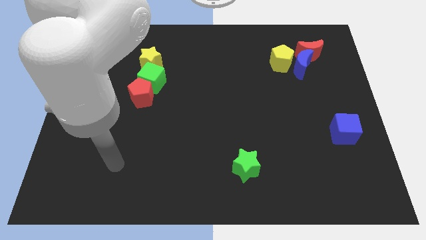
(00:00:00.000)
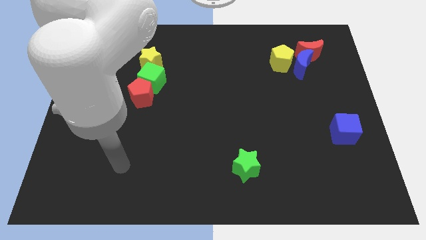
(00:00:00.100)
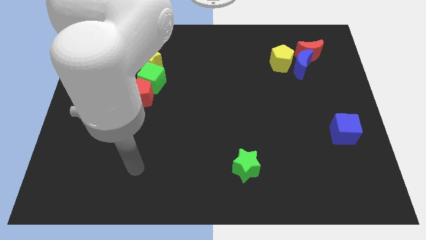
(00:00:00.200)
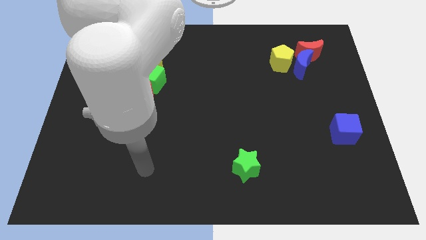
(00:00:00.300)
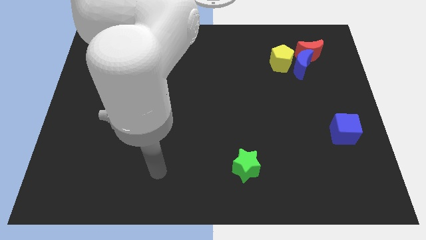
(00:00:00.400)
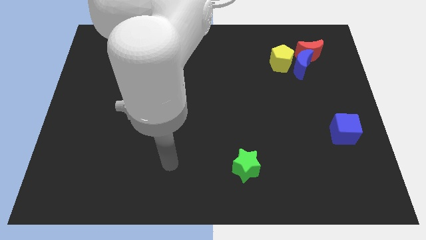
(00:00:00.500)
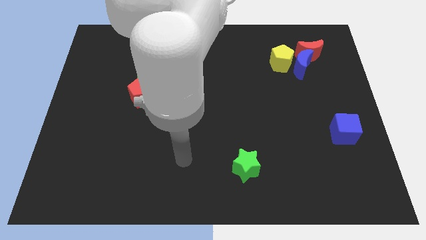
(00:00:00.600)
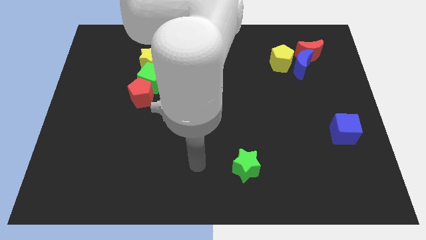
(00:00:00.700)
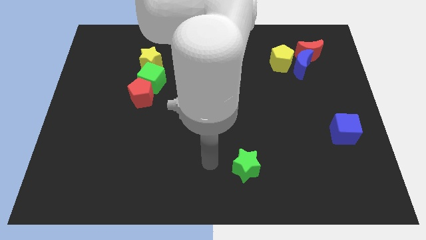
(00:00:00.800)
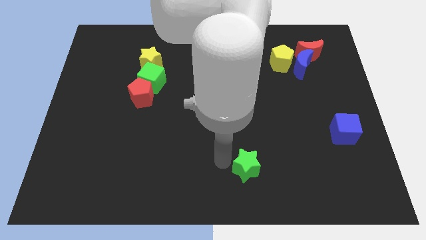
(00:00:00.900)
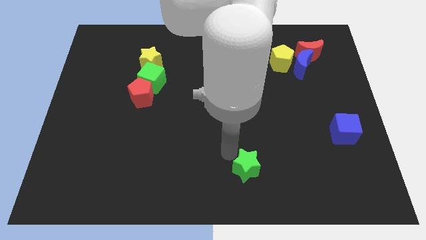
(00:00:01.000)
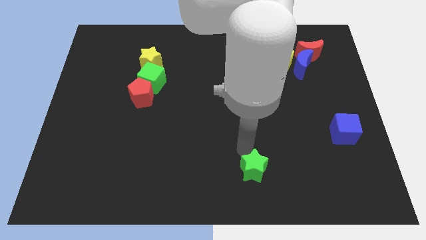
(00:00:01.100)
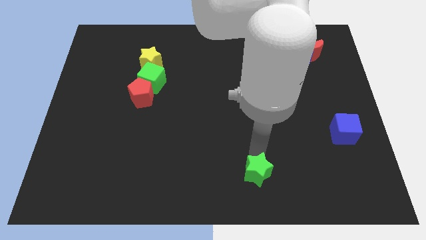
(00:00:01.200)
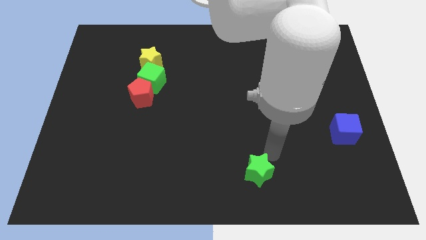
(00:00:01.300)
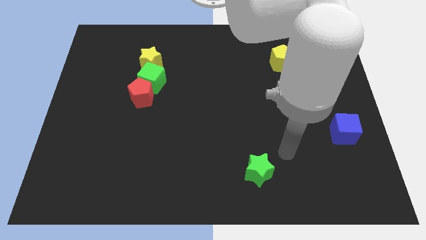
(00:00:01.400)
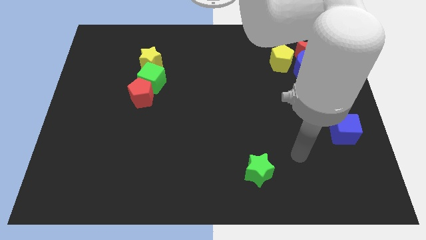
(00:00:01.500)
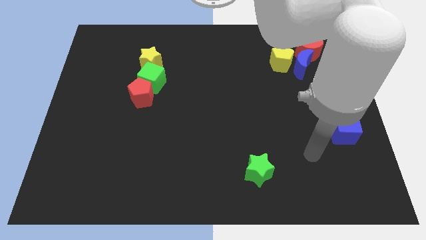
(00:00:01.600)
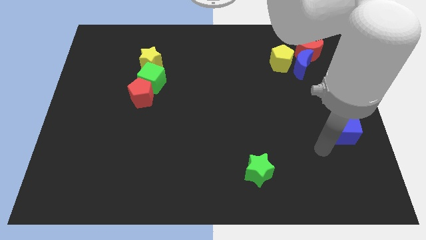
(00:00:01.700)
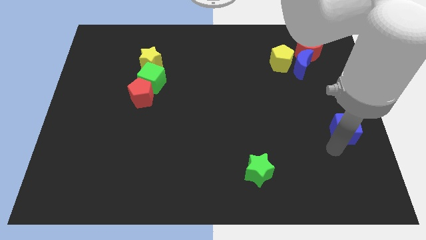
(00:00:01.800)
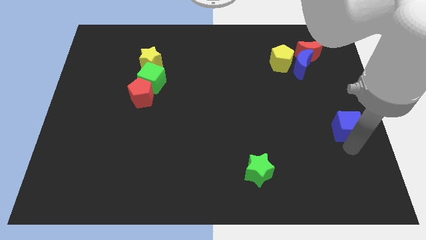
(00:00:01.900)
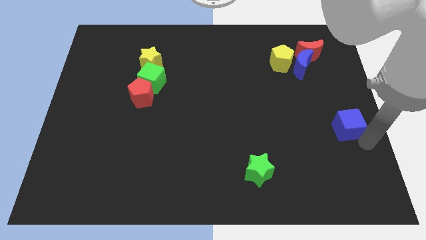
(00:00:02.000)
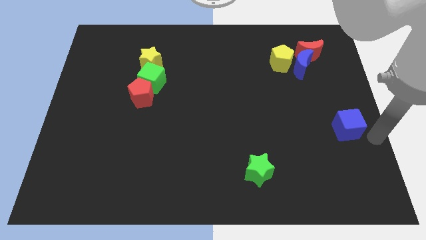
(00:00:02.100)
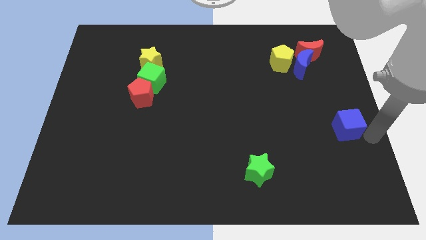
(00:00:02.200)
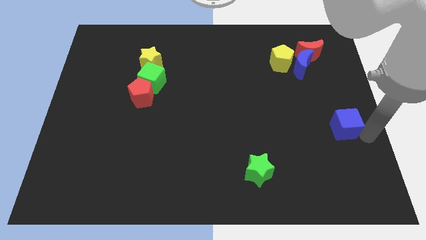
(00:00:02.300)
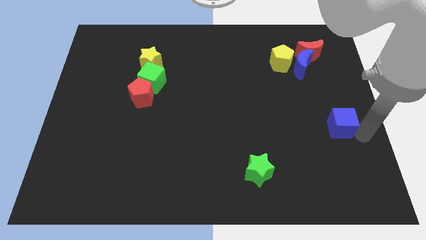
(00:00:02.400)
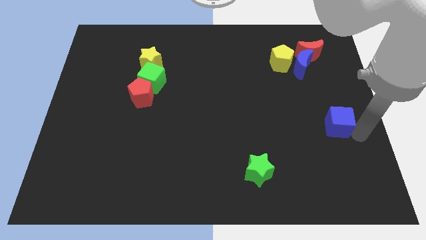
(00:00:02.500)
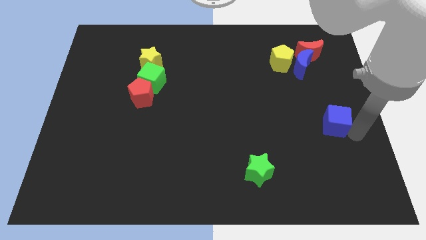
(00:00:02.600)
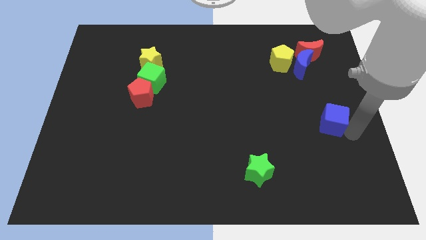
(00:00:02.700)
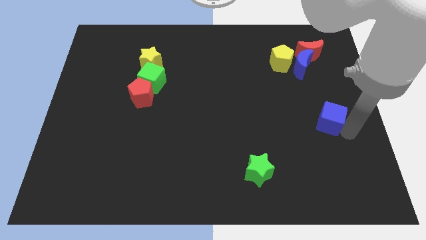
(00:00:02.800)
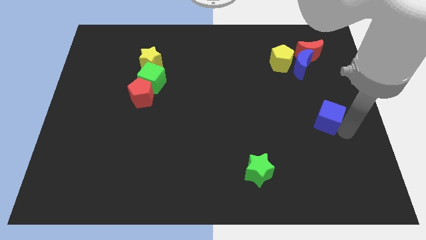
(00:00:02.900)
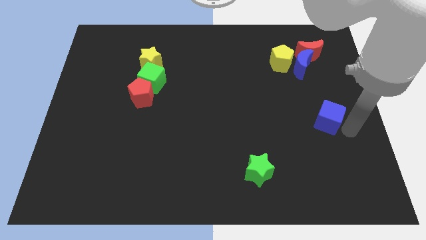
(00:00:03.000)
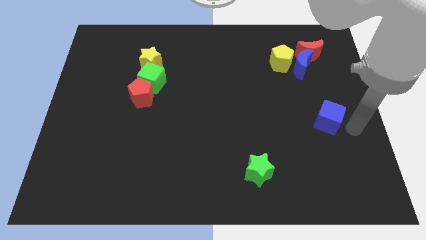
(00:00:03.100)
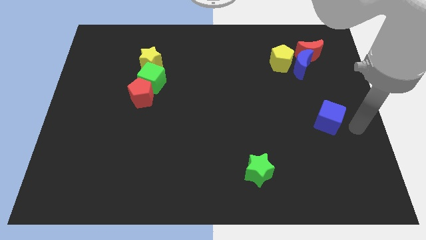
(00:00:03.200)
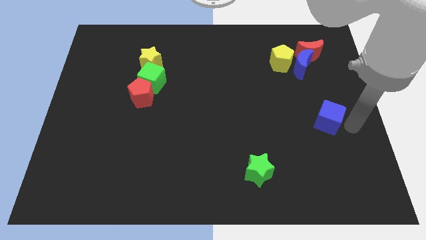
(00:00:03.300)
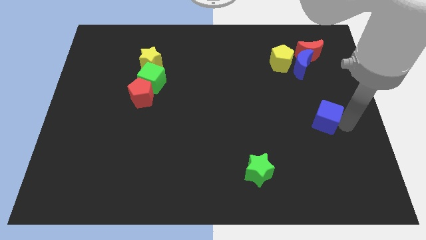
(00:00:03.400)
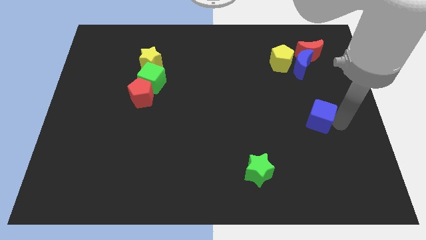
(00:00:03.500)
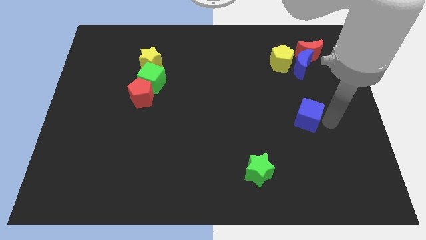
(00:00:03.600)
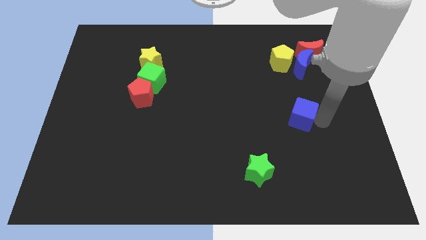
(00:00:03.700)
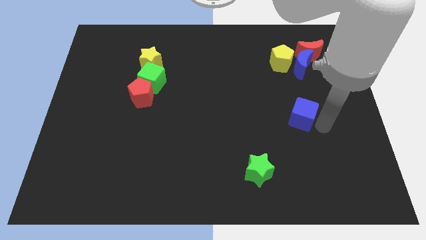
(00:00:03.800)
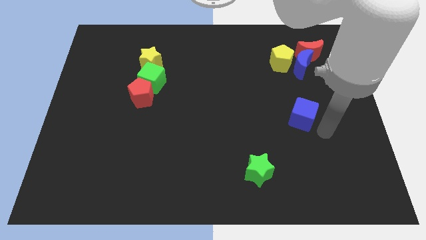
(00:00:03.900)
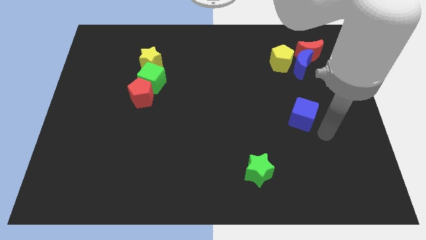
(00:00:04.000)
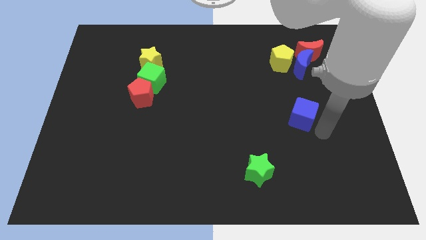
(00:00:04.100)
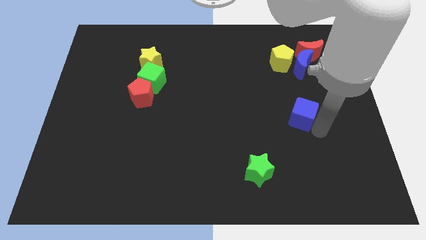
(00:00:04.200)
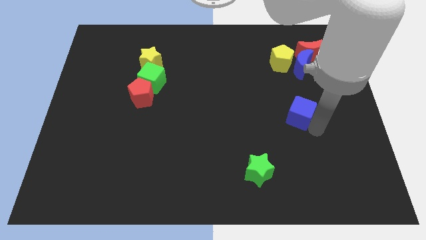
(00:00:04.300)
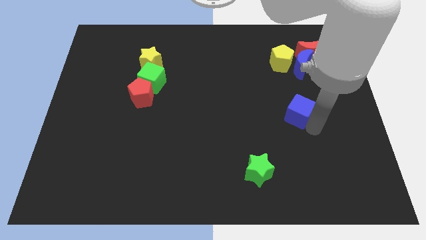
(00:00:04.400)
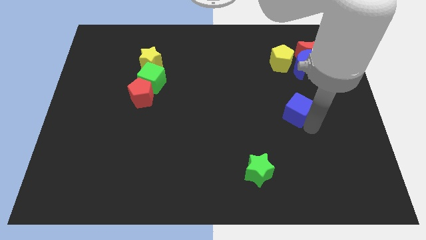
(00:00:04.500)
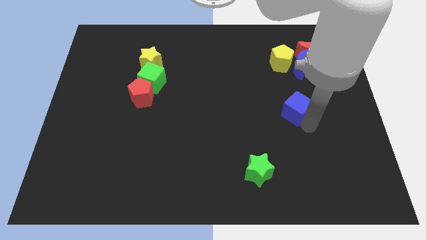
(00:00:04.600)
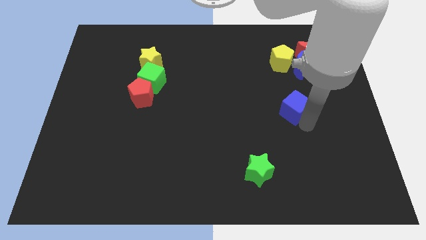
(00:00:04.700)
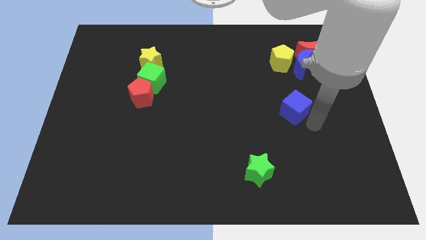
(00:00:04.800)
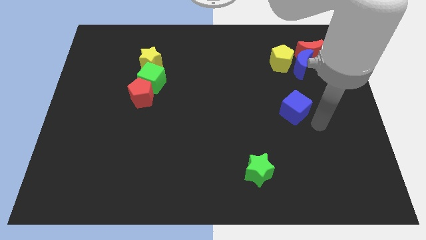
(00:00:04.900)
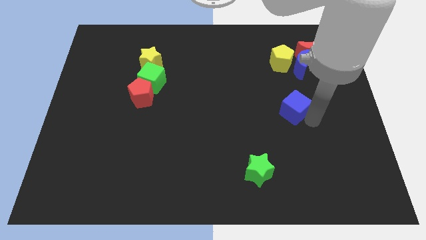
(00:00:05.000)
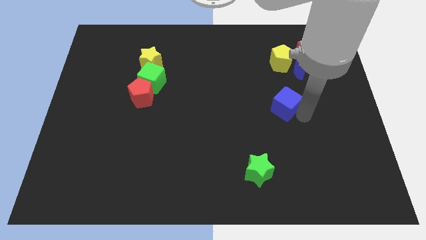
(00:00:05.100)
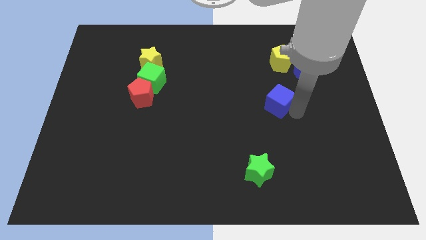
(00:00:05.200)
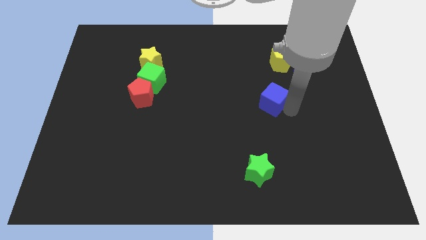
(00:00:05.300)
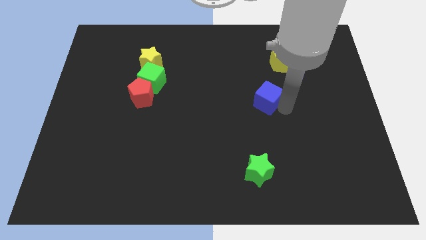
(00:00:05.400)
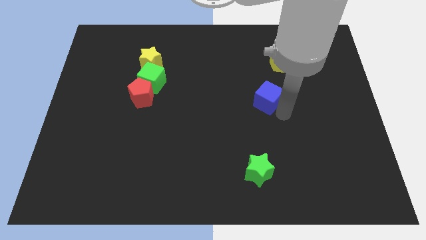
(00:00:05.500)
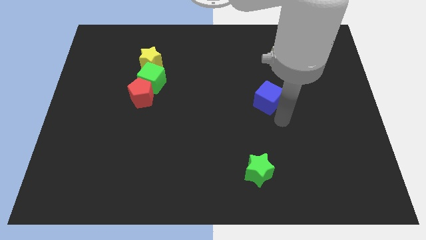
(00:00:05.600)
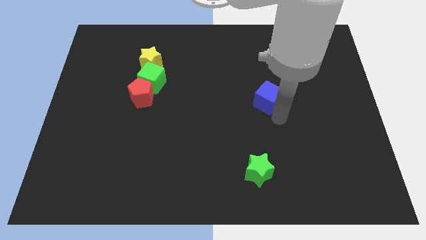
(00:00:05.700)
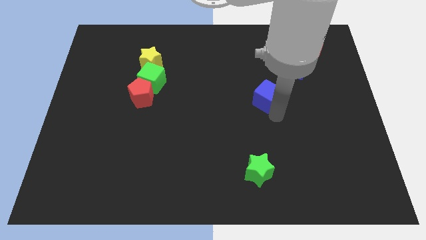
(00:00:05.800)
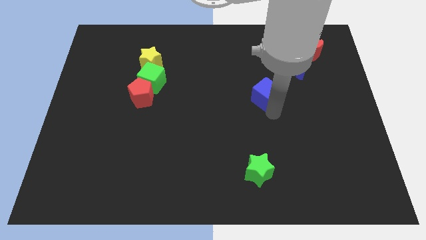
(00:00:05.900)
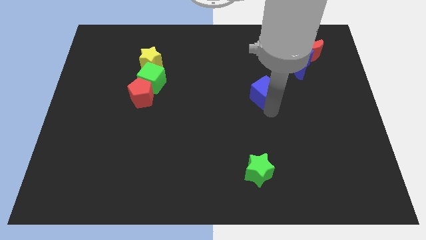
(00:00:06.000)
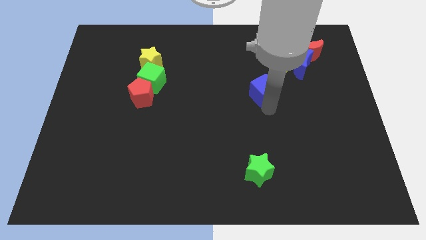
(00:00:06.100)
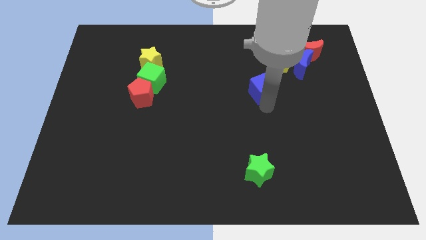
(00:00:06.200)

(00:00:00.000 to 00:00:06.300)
slide the blue cube up and then to the left

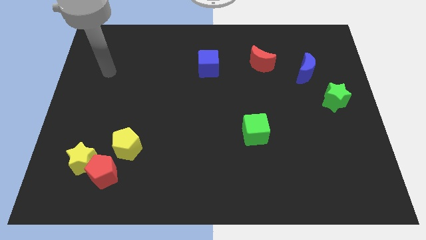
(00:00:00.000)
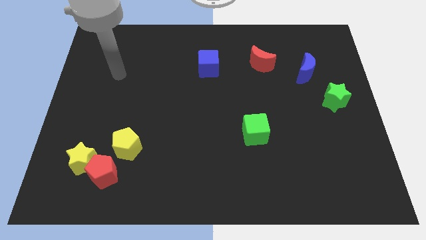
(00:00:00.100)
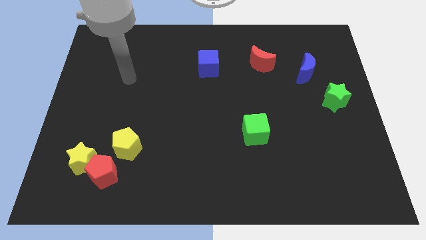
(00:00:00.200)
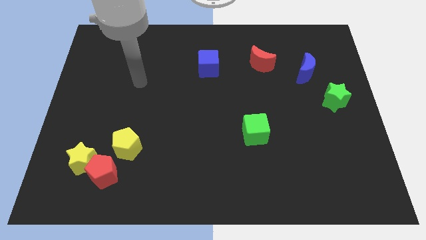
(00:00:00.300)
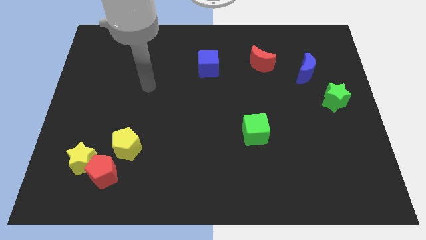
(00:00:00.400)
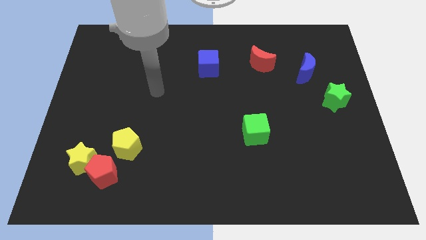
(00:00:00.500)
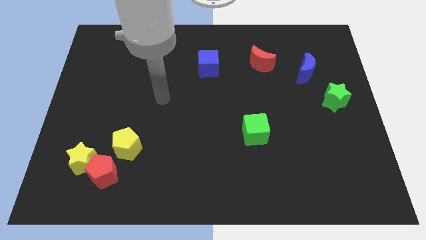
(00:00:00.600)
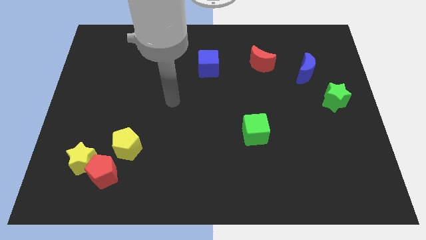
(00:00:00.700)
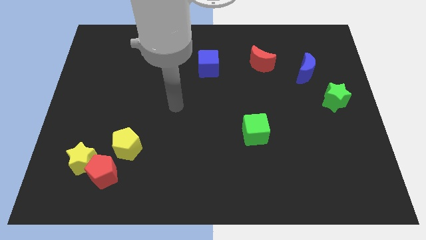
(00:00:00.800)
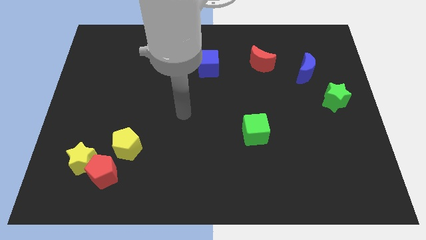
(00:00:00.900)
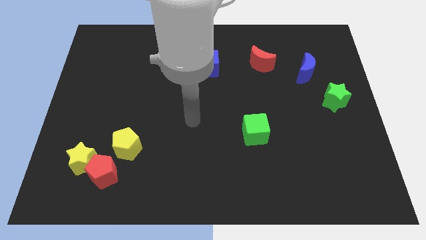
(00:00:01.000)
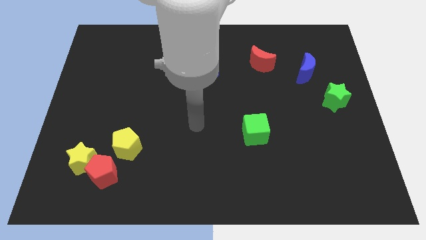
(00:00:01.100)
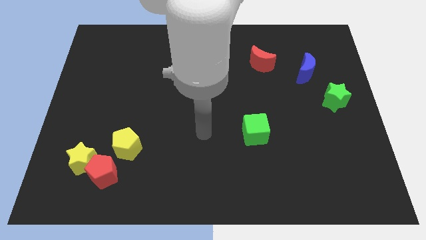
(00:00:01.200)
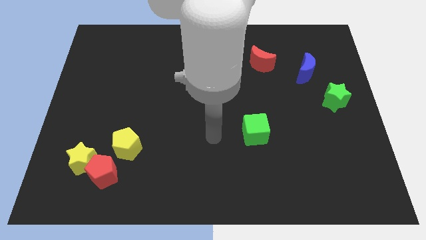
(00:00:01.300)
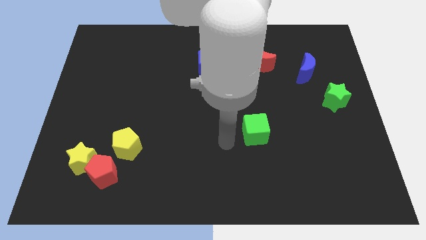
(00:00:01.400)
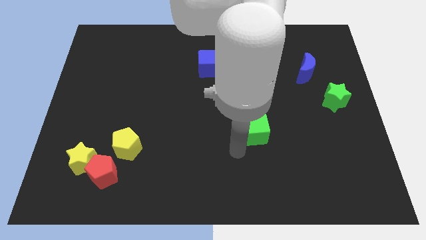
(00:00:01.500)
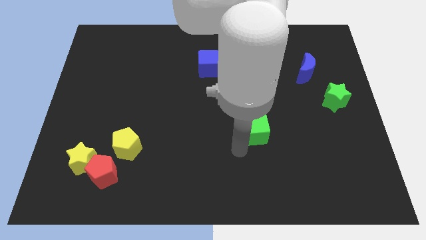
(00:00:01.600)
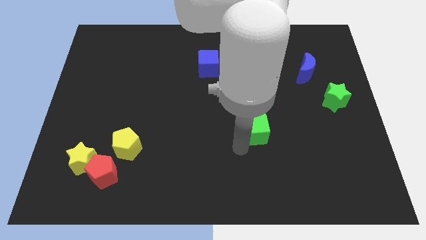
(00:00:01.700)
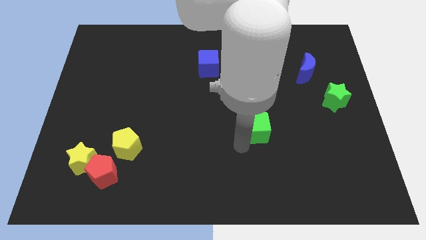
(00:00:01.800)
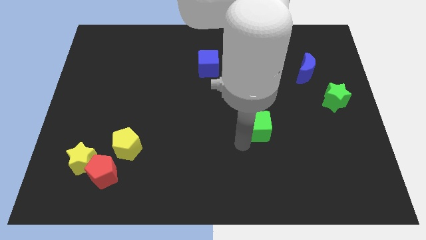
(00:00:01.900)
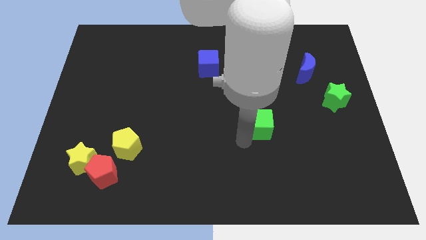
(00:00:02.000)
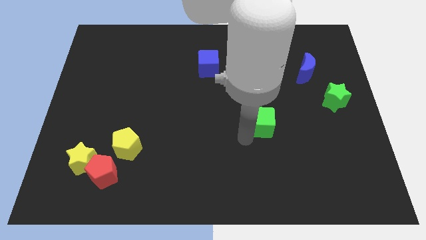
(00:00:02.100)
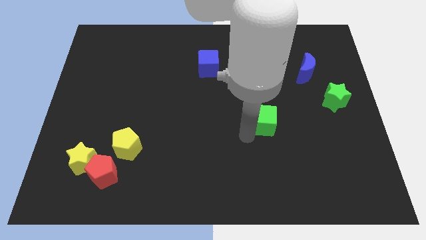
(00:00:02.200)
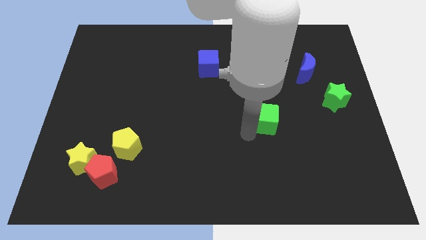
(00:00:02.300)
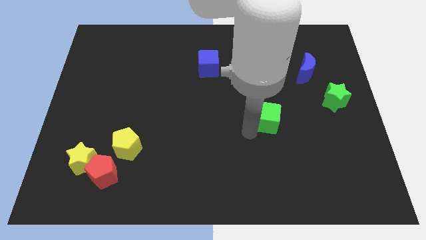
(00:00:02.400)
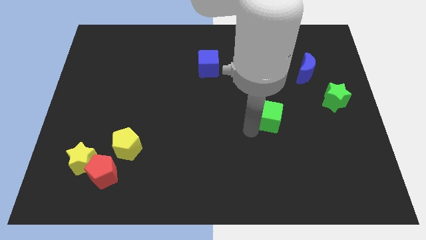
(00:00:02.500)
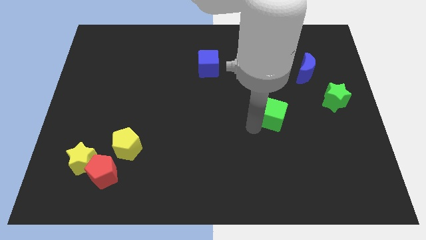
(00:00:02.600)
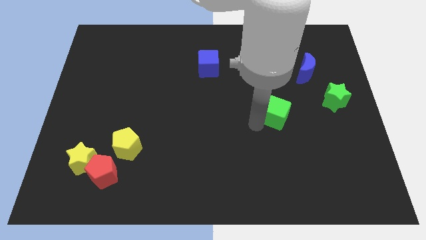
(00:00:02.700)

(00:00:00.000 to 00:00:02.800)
slide the green cube upwards and to the right diagonally a little bit
